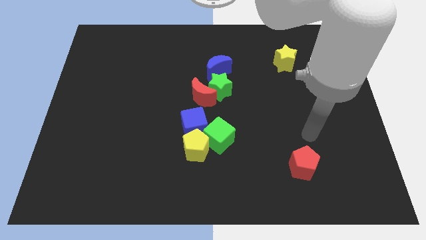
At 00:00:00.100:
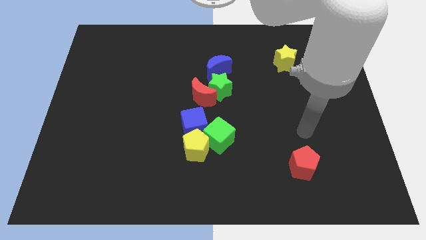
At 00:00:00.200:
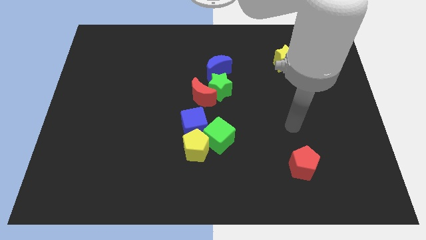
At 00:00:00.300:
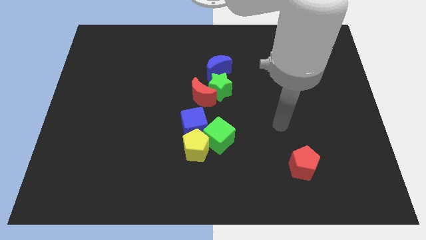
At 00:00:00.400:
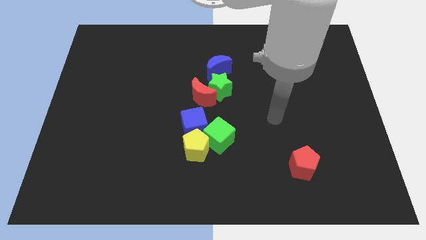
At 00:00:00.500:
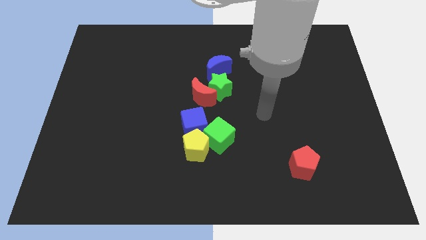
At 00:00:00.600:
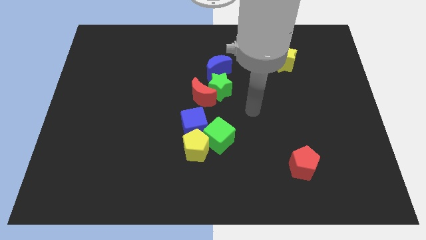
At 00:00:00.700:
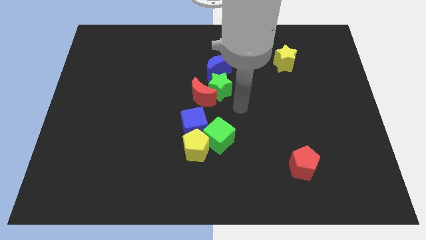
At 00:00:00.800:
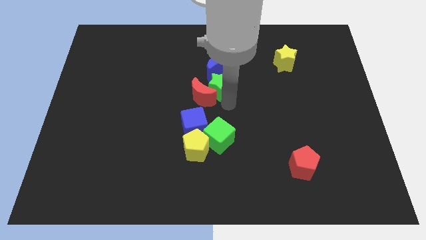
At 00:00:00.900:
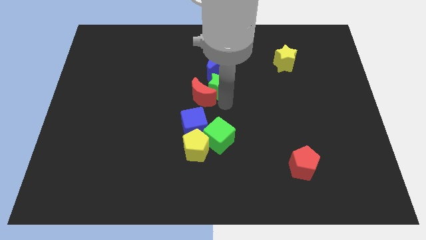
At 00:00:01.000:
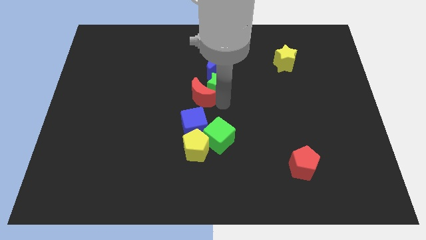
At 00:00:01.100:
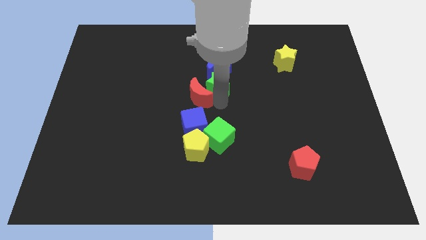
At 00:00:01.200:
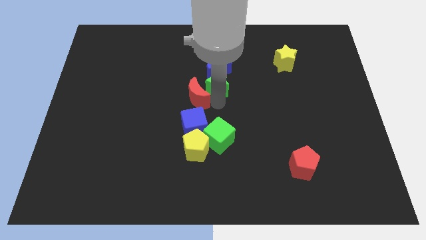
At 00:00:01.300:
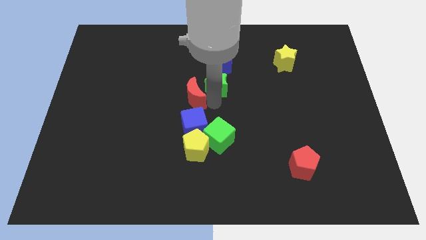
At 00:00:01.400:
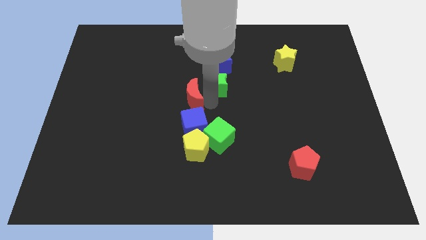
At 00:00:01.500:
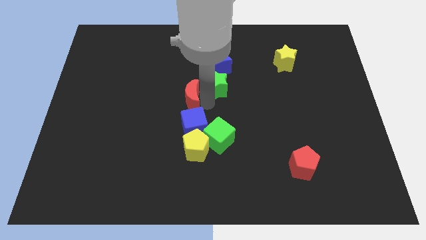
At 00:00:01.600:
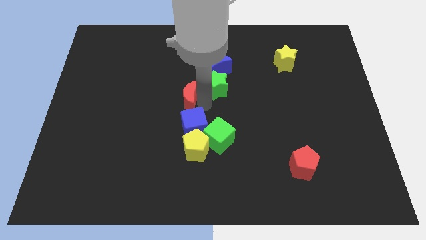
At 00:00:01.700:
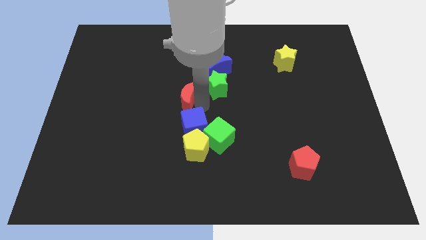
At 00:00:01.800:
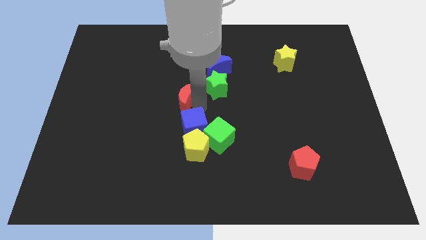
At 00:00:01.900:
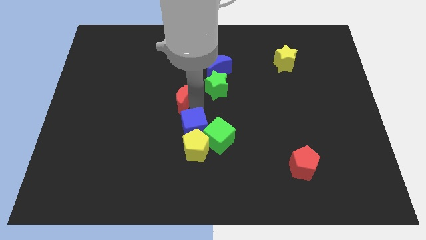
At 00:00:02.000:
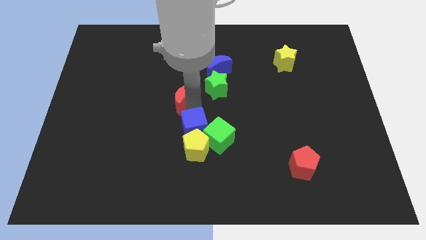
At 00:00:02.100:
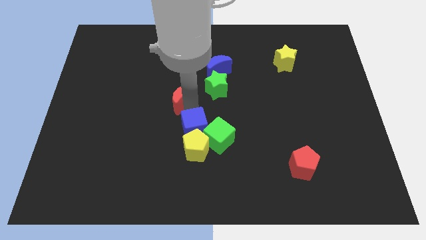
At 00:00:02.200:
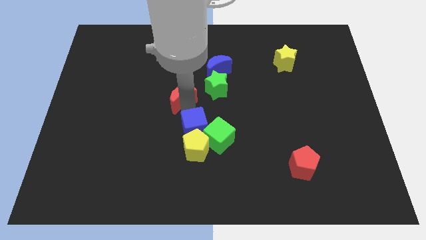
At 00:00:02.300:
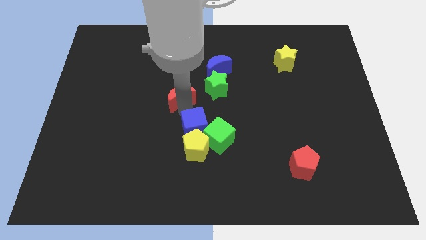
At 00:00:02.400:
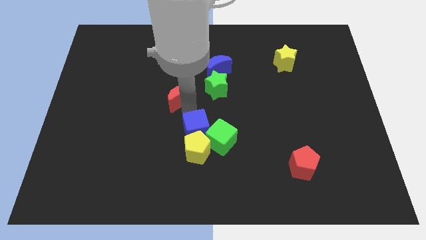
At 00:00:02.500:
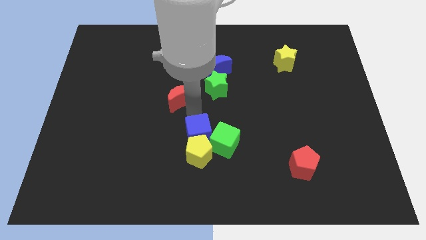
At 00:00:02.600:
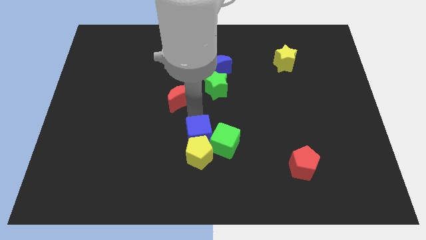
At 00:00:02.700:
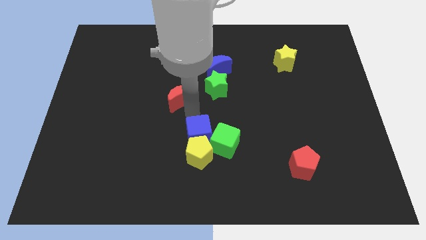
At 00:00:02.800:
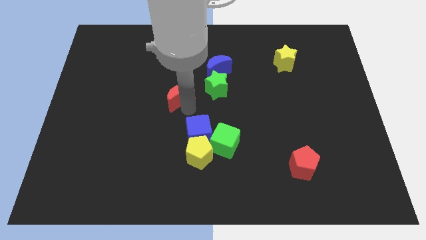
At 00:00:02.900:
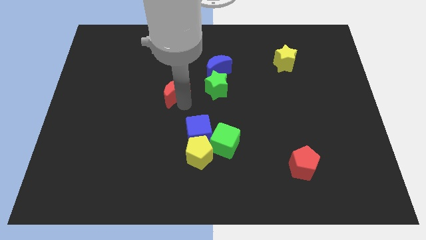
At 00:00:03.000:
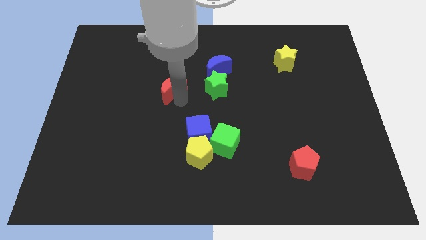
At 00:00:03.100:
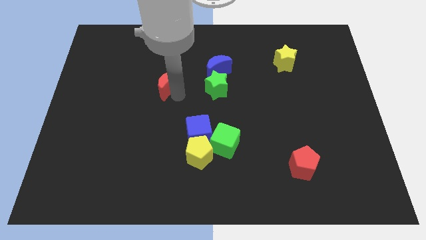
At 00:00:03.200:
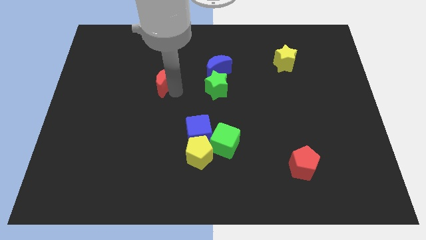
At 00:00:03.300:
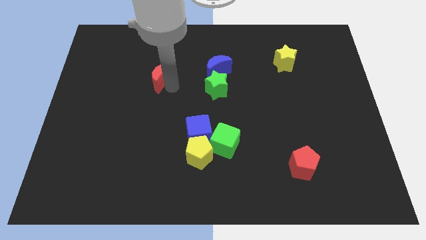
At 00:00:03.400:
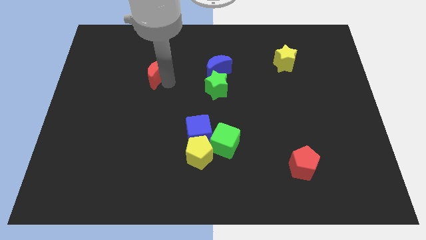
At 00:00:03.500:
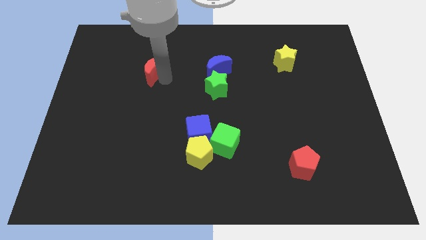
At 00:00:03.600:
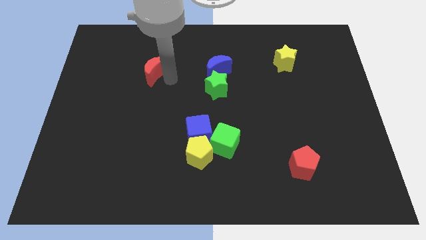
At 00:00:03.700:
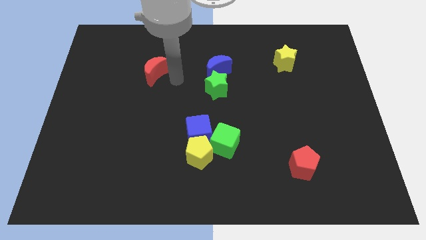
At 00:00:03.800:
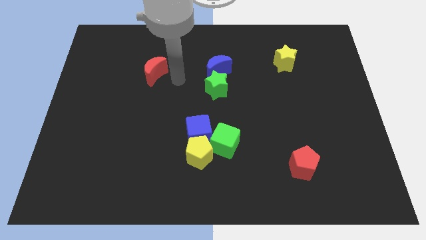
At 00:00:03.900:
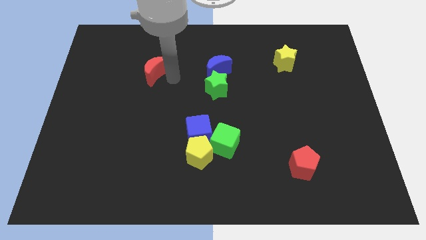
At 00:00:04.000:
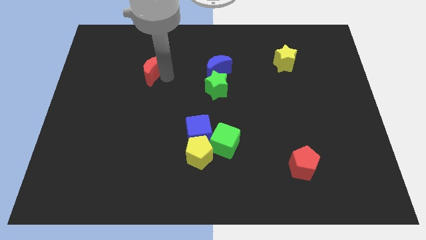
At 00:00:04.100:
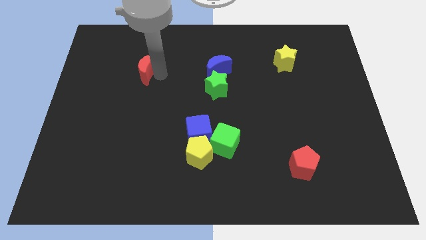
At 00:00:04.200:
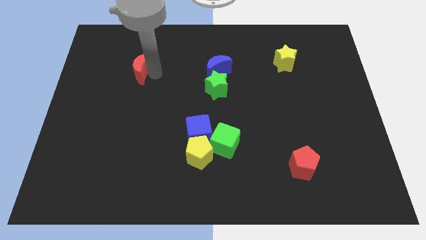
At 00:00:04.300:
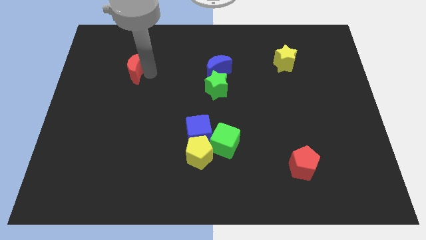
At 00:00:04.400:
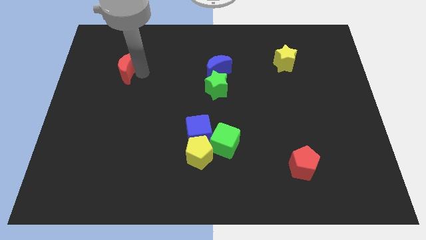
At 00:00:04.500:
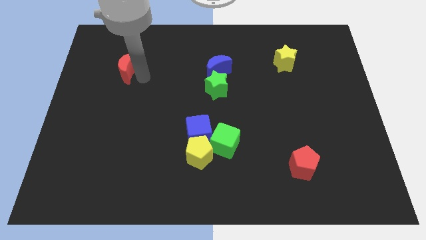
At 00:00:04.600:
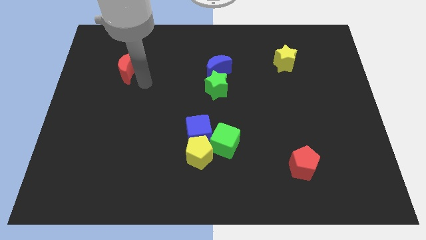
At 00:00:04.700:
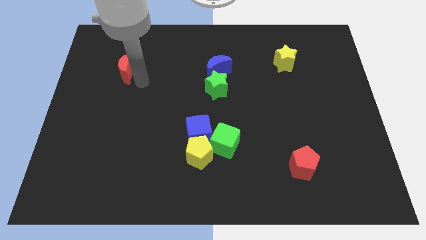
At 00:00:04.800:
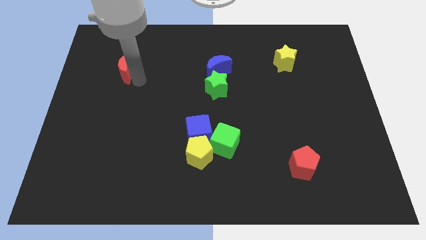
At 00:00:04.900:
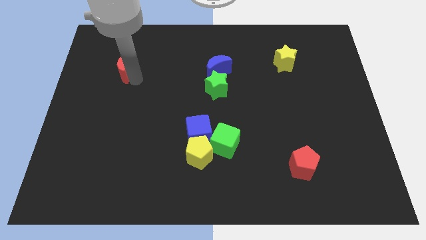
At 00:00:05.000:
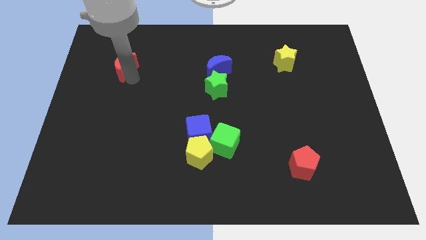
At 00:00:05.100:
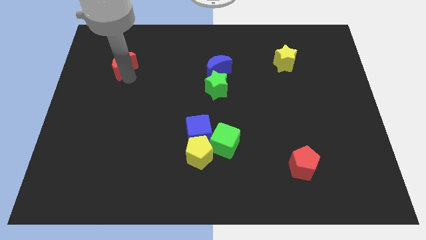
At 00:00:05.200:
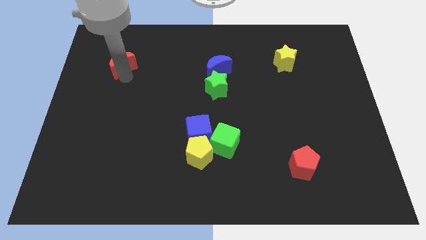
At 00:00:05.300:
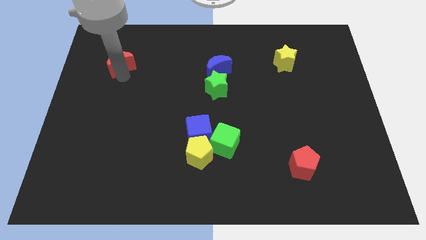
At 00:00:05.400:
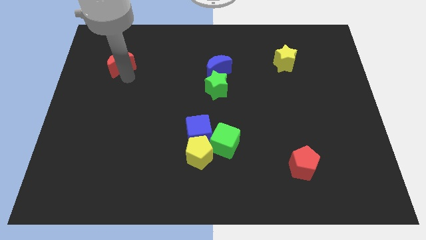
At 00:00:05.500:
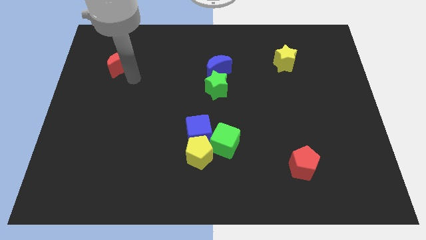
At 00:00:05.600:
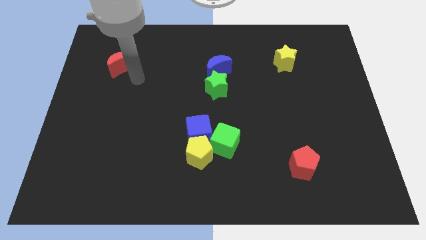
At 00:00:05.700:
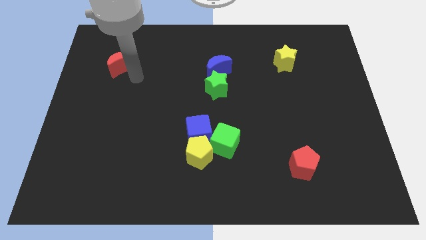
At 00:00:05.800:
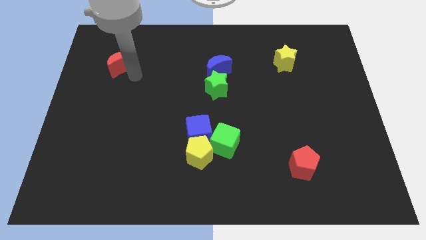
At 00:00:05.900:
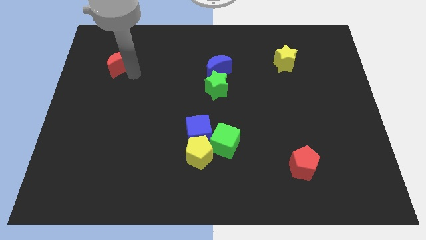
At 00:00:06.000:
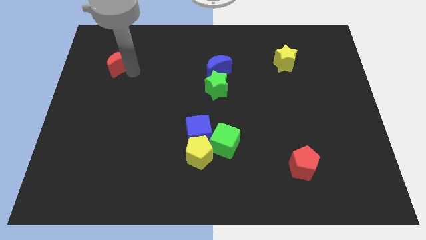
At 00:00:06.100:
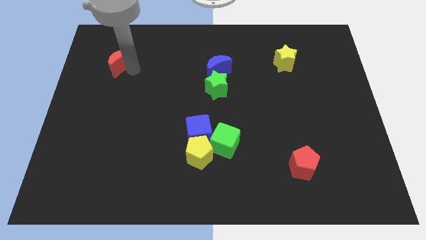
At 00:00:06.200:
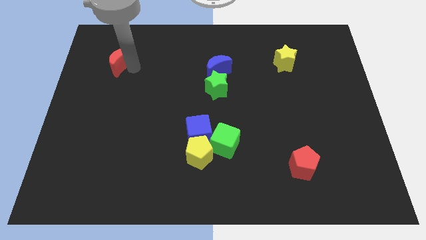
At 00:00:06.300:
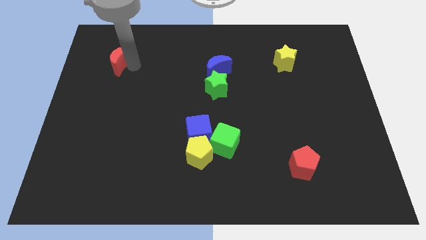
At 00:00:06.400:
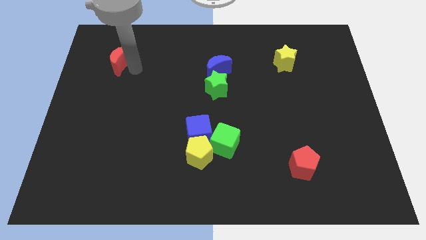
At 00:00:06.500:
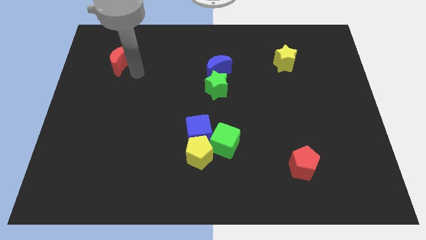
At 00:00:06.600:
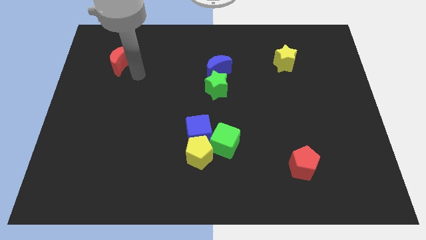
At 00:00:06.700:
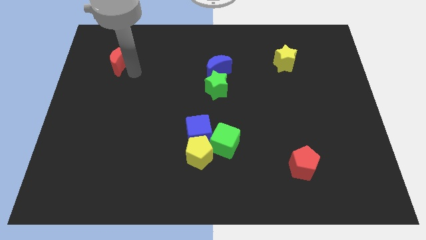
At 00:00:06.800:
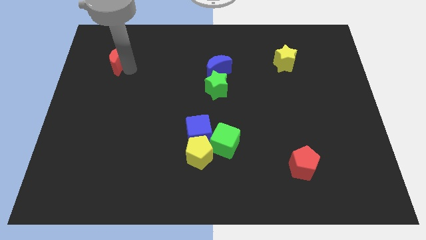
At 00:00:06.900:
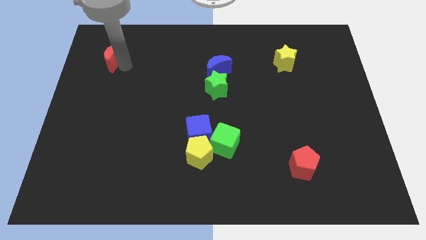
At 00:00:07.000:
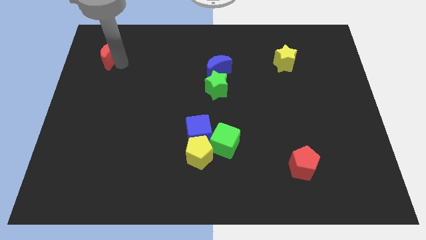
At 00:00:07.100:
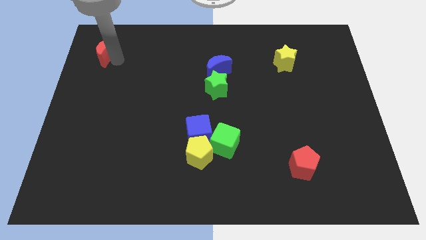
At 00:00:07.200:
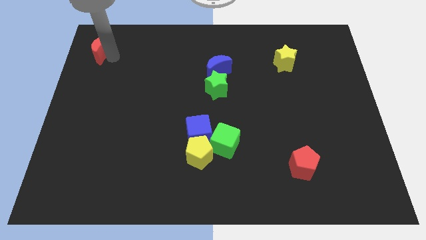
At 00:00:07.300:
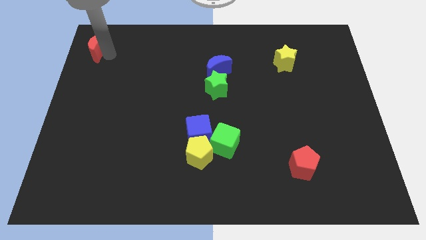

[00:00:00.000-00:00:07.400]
slide the red moon to the top left corner
